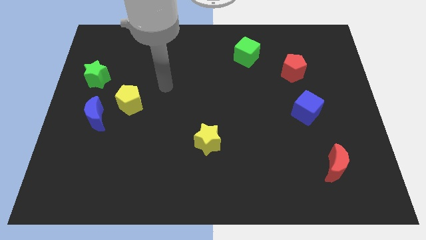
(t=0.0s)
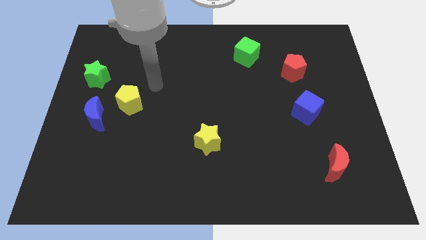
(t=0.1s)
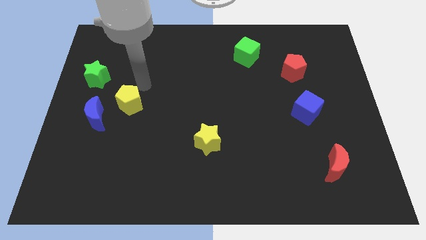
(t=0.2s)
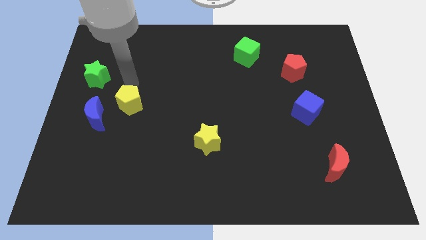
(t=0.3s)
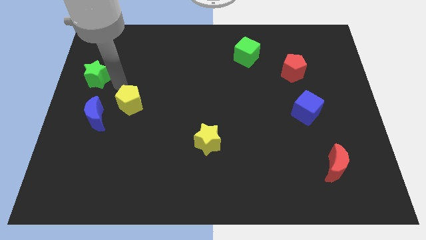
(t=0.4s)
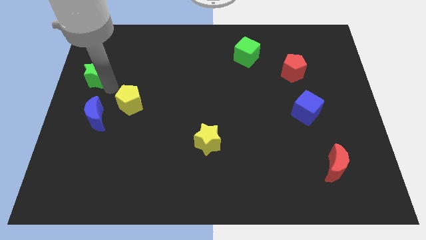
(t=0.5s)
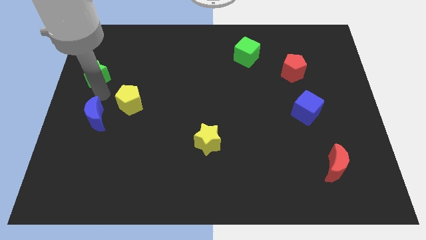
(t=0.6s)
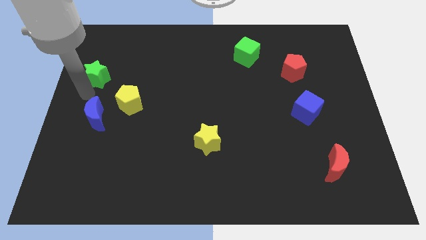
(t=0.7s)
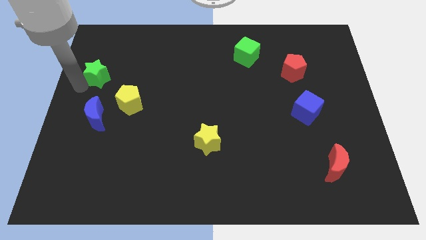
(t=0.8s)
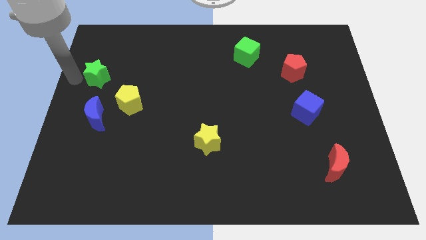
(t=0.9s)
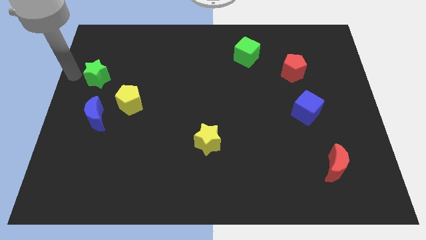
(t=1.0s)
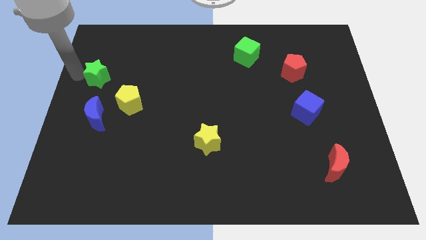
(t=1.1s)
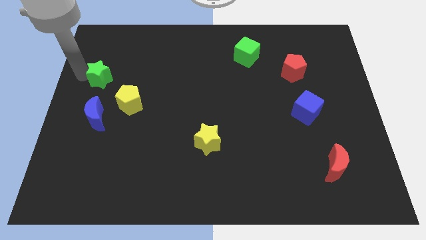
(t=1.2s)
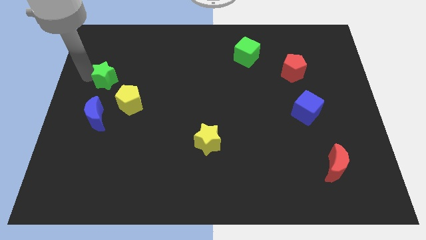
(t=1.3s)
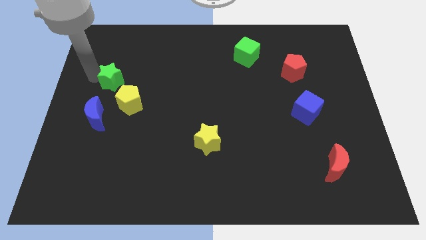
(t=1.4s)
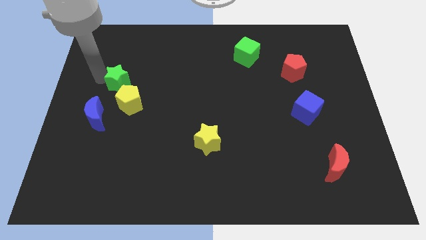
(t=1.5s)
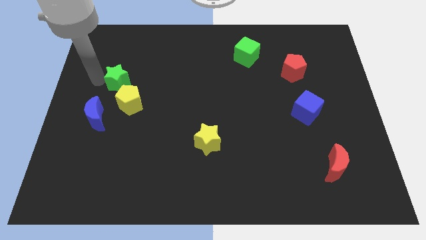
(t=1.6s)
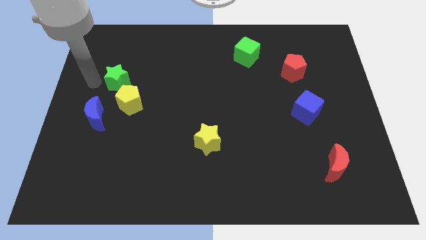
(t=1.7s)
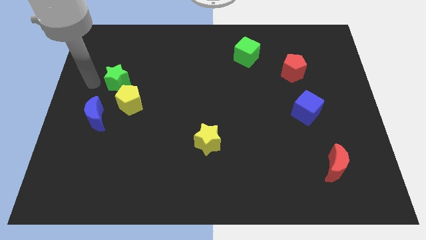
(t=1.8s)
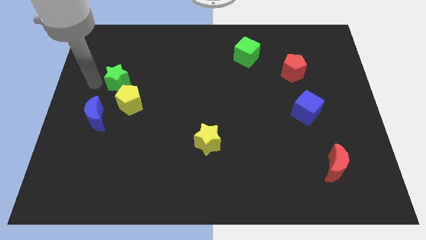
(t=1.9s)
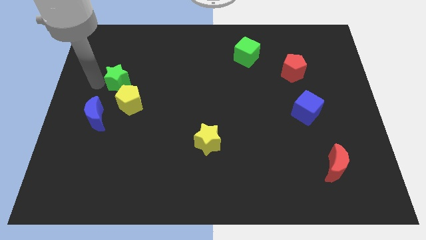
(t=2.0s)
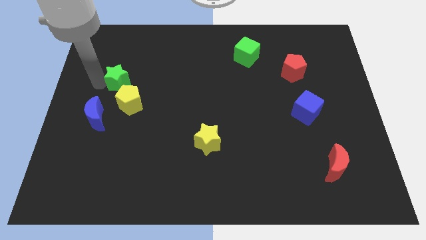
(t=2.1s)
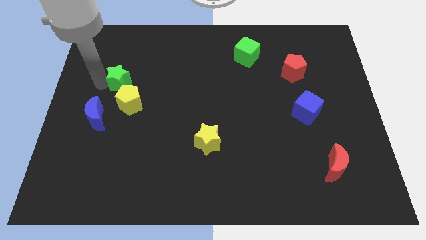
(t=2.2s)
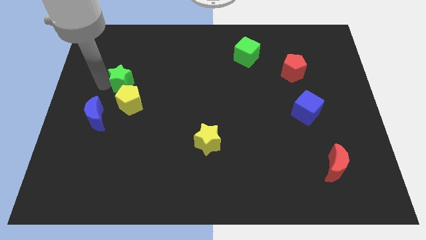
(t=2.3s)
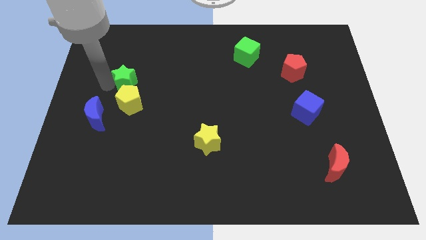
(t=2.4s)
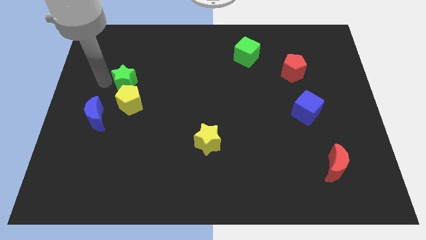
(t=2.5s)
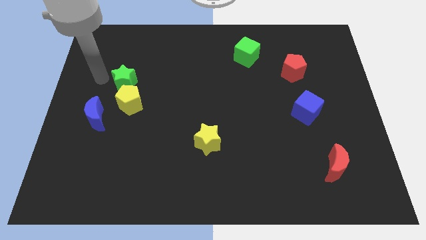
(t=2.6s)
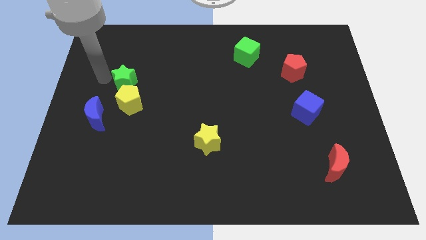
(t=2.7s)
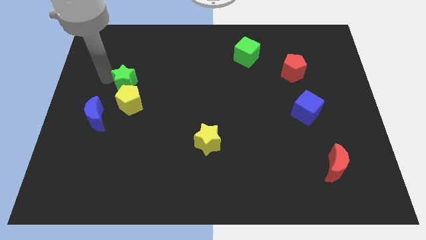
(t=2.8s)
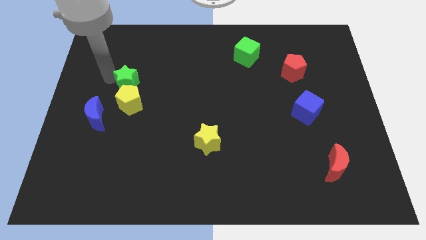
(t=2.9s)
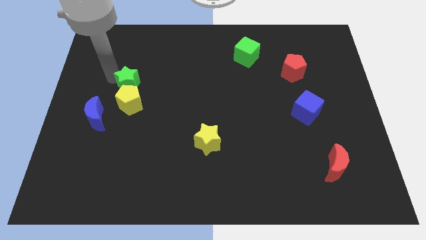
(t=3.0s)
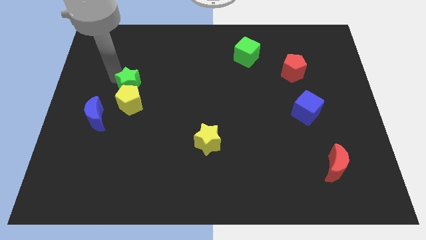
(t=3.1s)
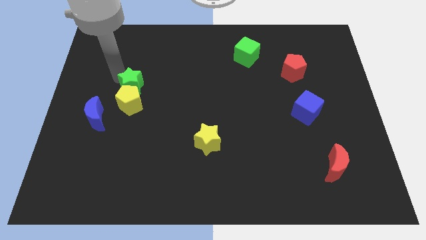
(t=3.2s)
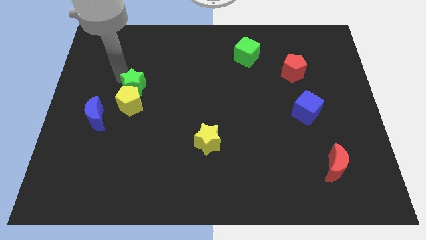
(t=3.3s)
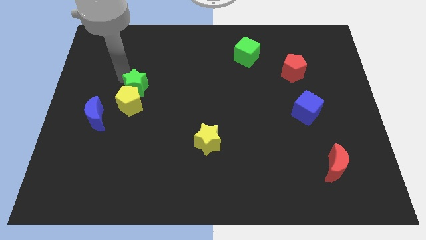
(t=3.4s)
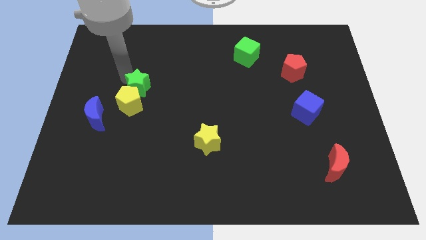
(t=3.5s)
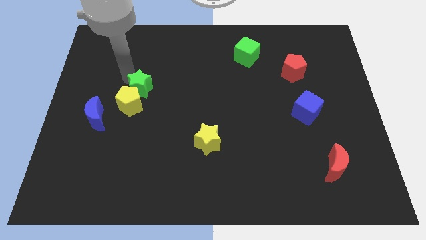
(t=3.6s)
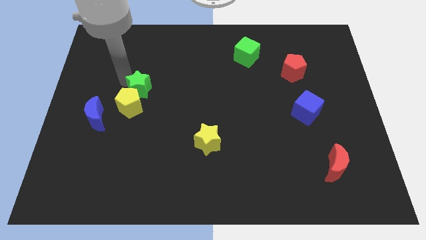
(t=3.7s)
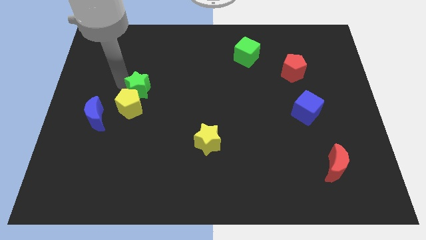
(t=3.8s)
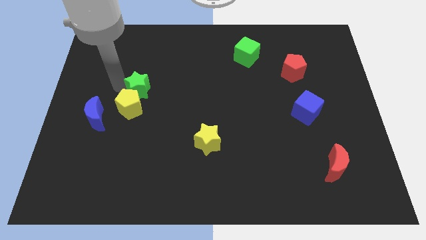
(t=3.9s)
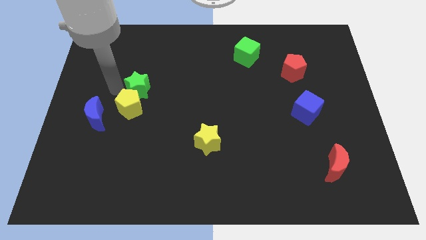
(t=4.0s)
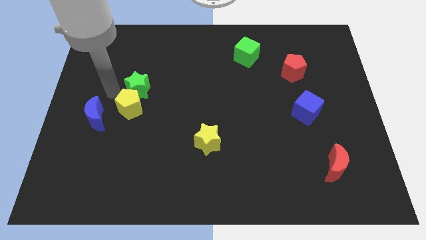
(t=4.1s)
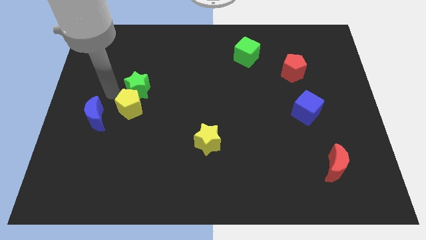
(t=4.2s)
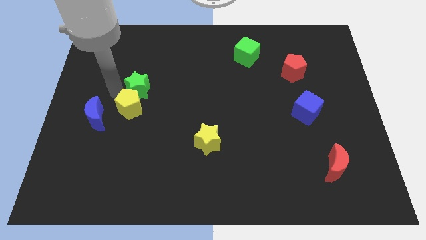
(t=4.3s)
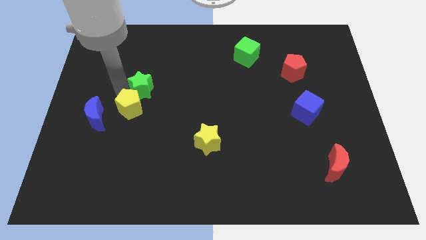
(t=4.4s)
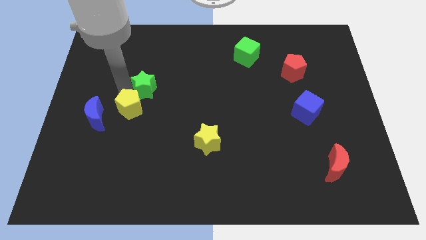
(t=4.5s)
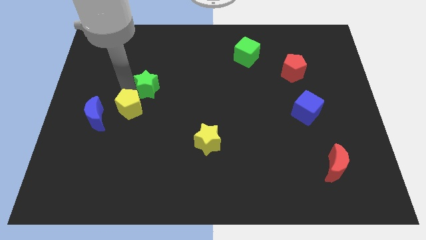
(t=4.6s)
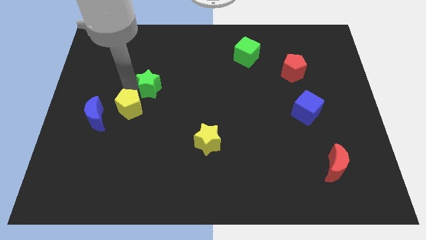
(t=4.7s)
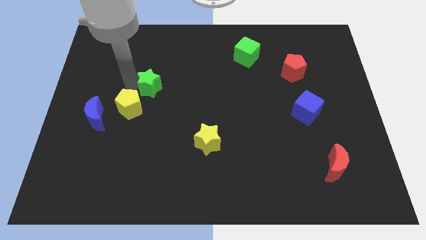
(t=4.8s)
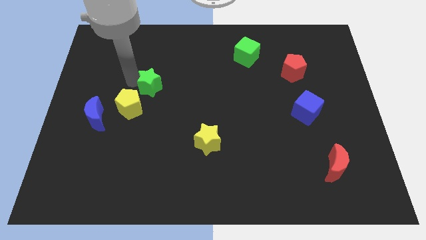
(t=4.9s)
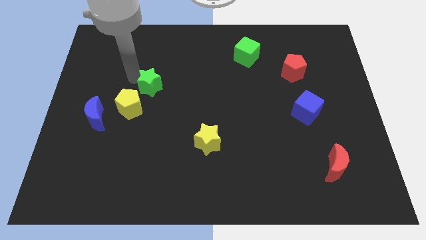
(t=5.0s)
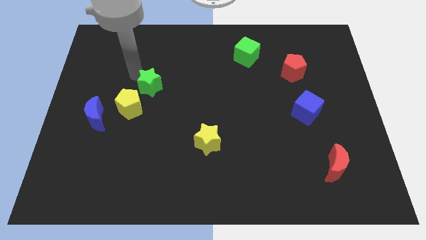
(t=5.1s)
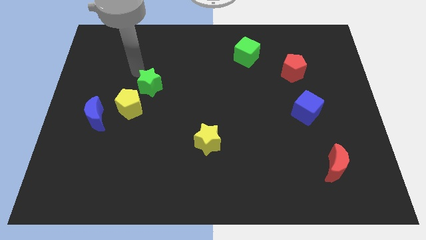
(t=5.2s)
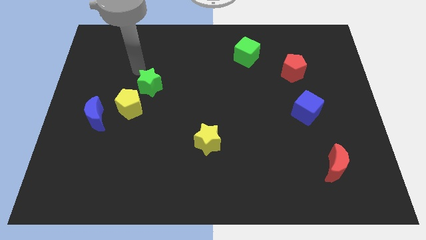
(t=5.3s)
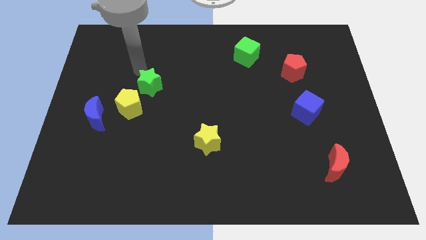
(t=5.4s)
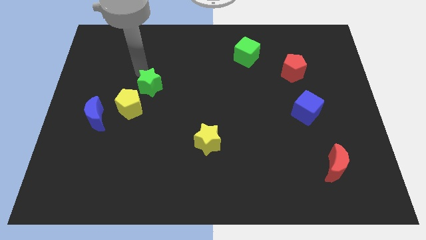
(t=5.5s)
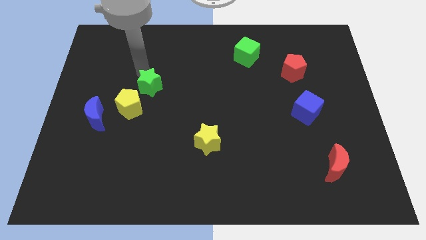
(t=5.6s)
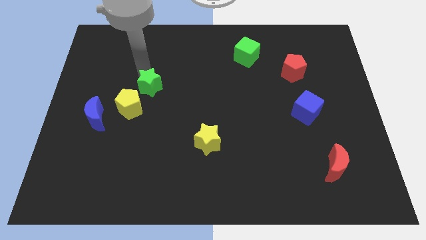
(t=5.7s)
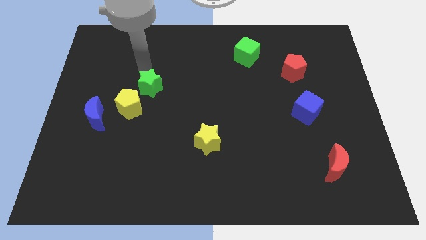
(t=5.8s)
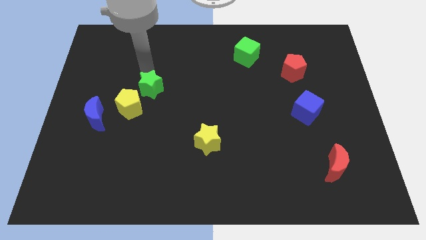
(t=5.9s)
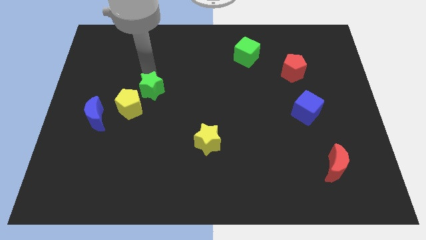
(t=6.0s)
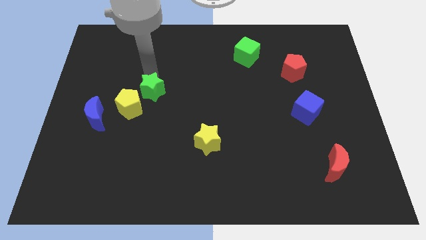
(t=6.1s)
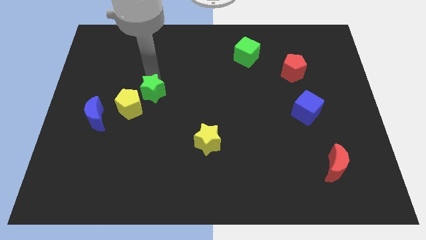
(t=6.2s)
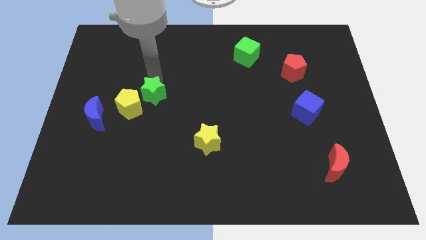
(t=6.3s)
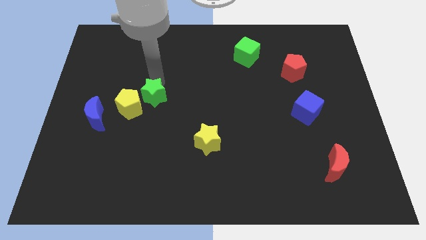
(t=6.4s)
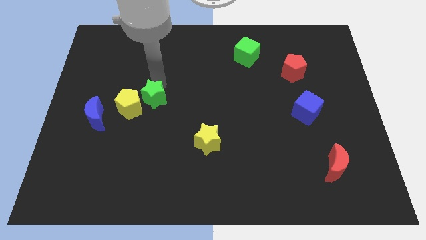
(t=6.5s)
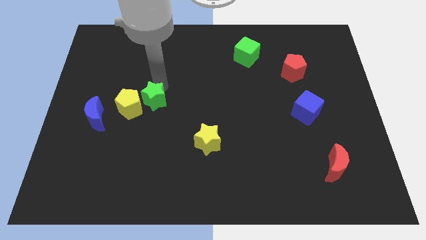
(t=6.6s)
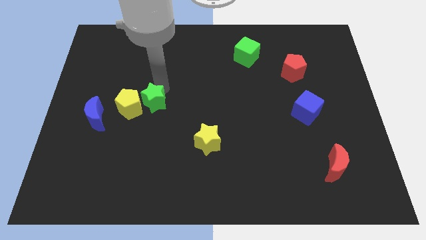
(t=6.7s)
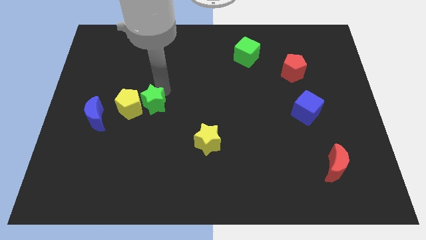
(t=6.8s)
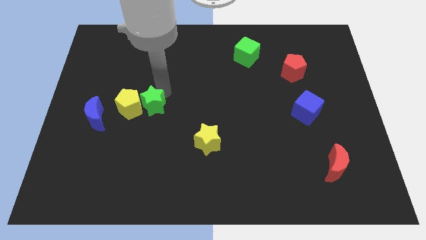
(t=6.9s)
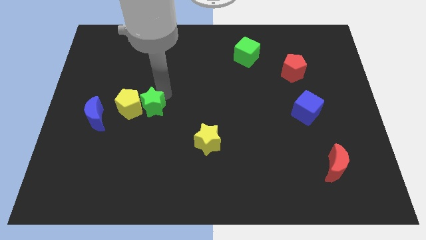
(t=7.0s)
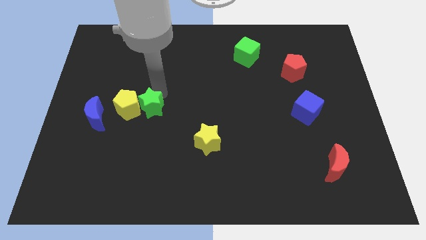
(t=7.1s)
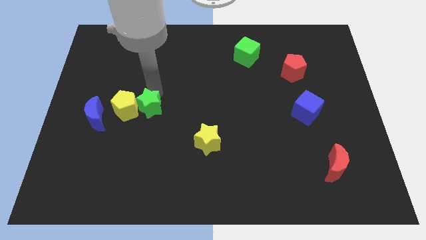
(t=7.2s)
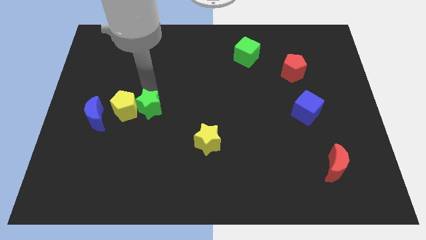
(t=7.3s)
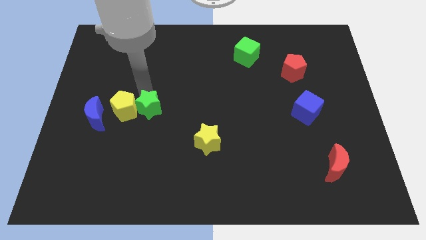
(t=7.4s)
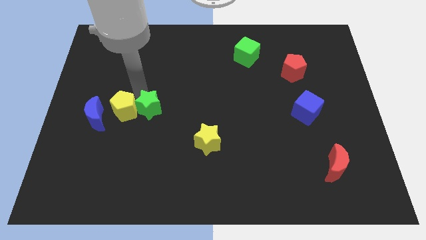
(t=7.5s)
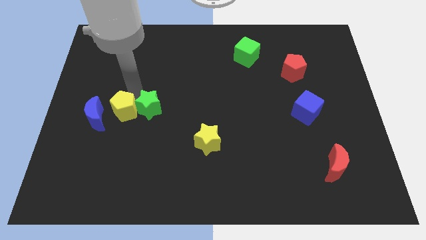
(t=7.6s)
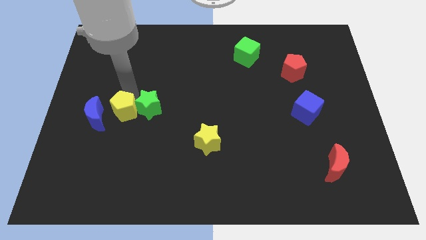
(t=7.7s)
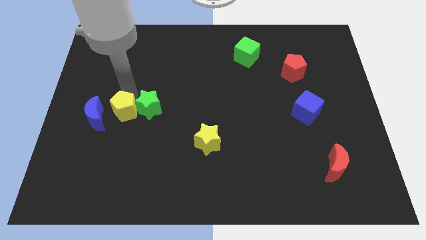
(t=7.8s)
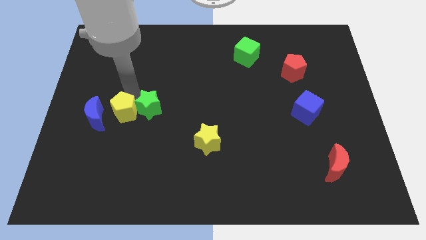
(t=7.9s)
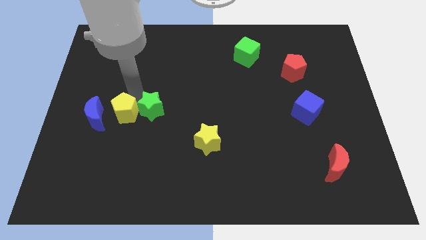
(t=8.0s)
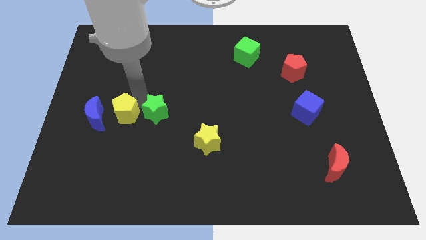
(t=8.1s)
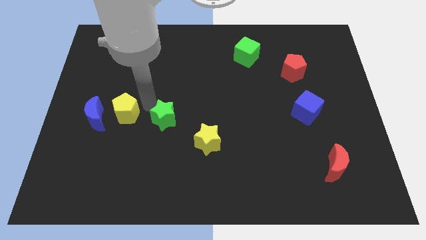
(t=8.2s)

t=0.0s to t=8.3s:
slide the green star down and to the right diagonally

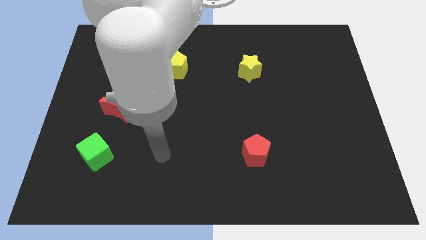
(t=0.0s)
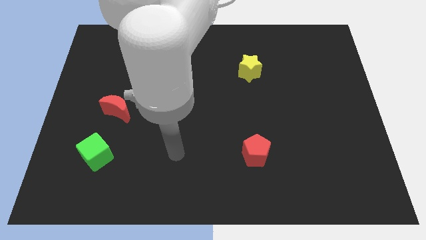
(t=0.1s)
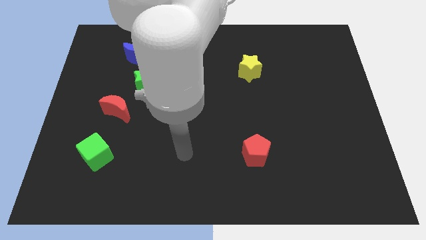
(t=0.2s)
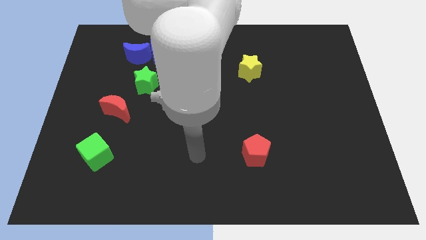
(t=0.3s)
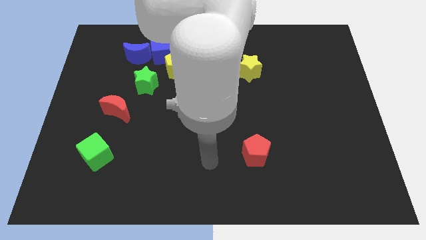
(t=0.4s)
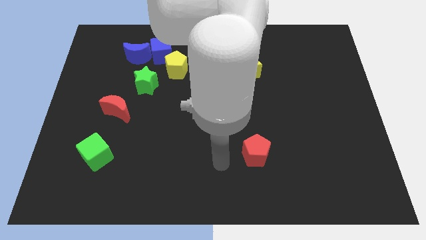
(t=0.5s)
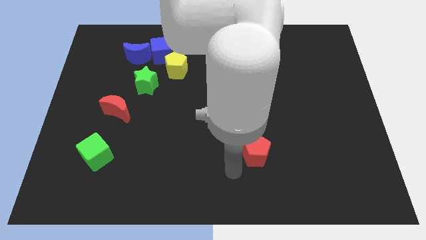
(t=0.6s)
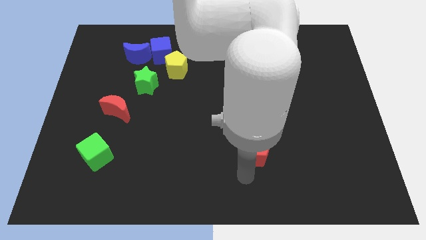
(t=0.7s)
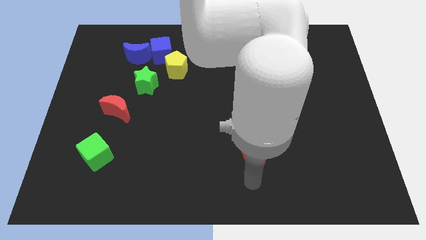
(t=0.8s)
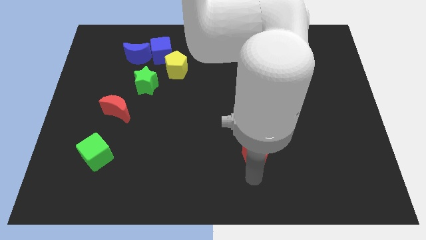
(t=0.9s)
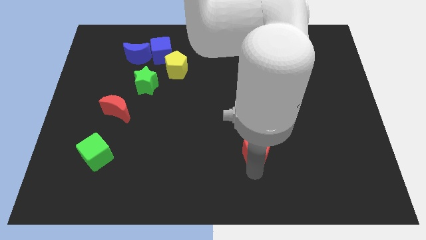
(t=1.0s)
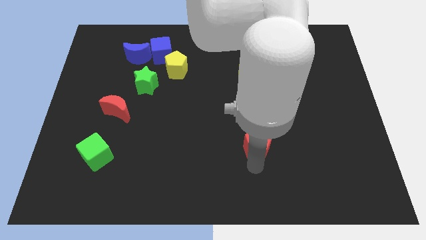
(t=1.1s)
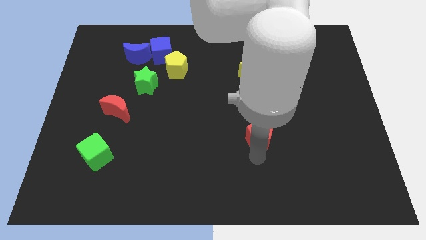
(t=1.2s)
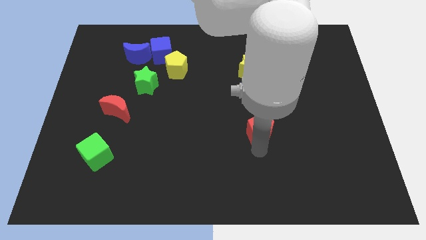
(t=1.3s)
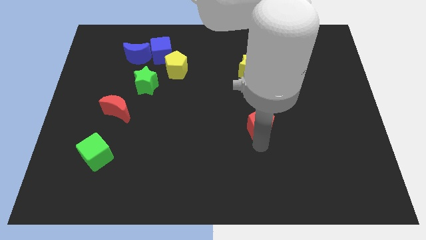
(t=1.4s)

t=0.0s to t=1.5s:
slide the red pentagon a little bit up
